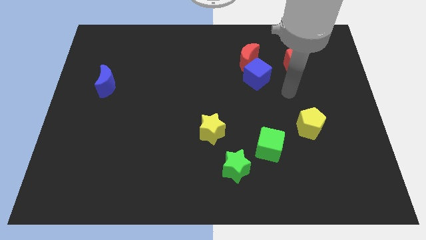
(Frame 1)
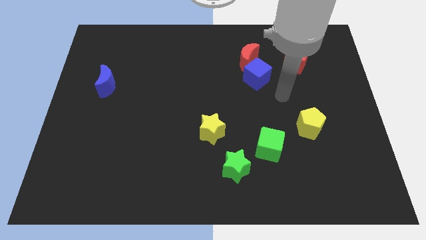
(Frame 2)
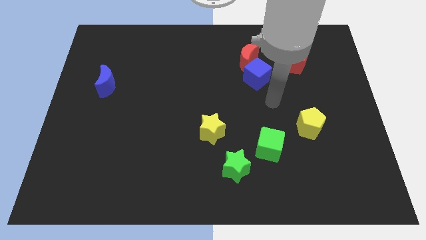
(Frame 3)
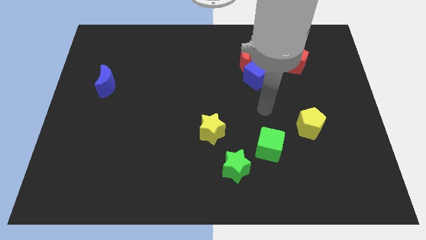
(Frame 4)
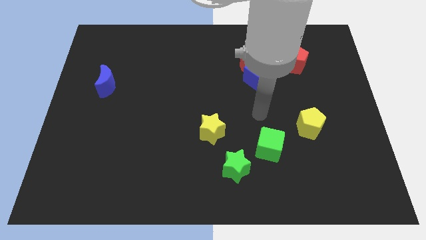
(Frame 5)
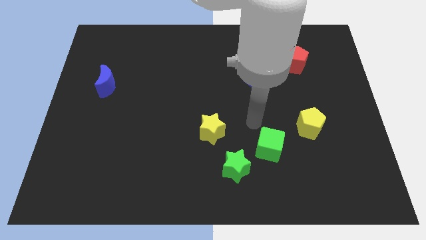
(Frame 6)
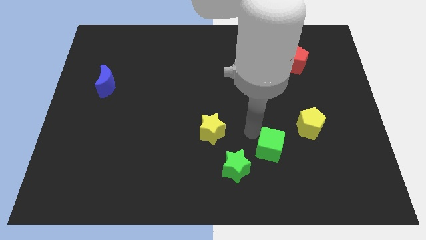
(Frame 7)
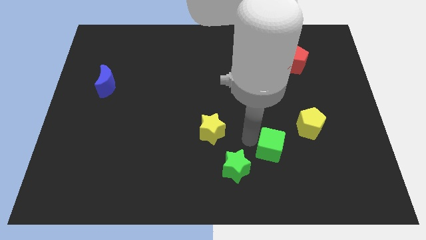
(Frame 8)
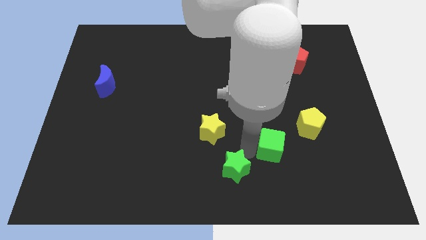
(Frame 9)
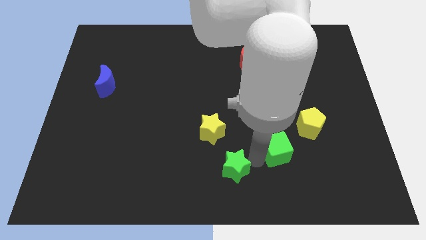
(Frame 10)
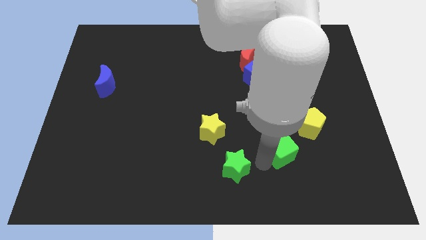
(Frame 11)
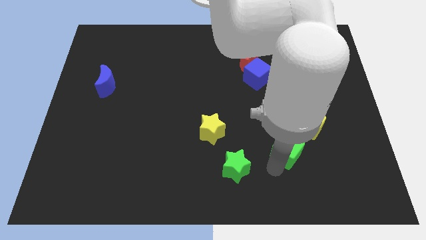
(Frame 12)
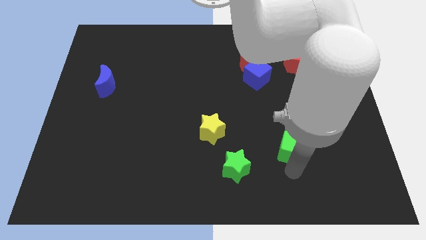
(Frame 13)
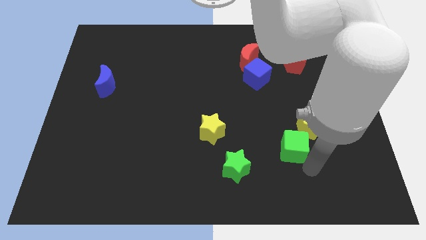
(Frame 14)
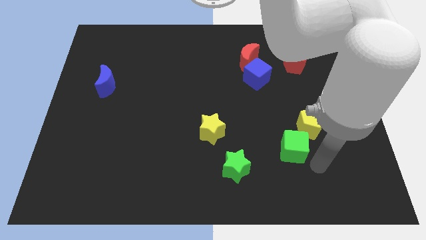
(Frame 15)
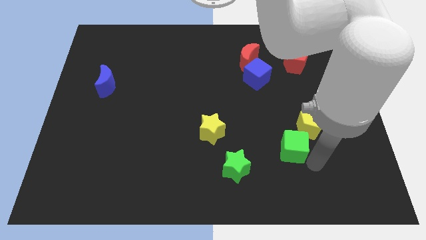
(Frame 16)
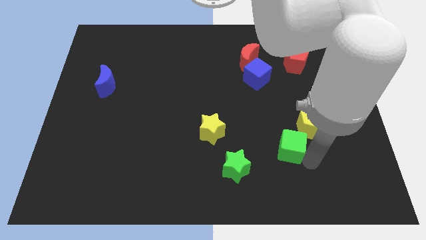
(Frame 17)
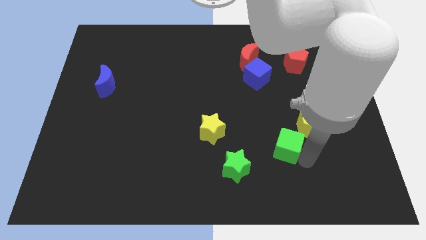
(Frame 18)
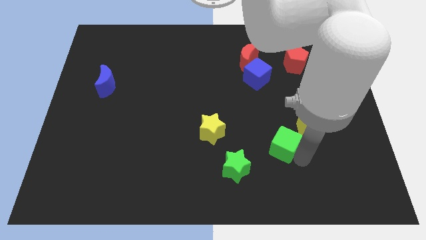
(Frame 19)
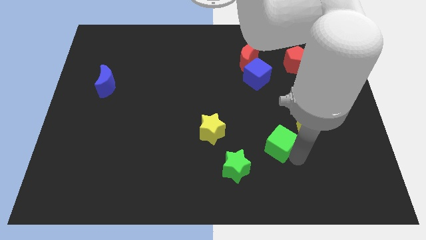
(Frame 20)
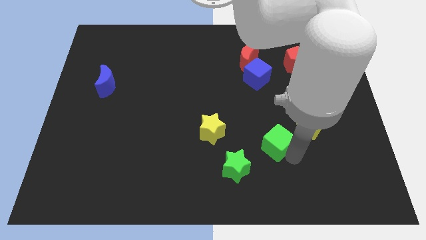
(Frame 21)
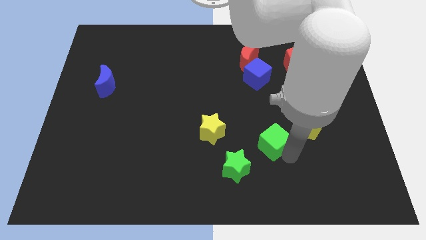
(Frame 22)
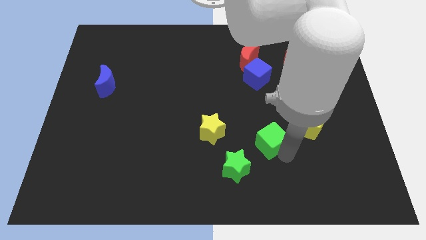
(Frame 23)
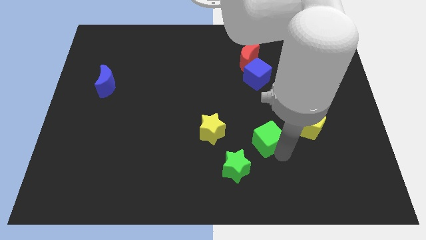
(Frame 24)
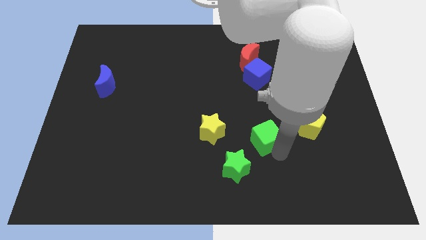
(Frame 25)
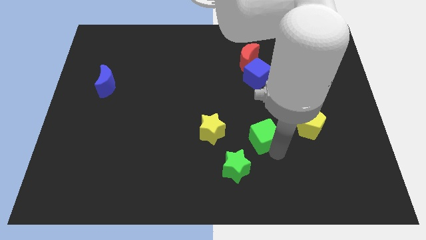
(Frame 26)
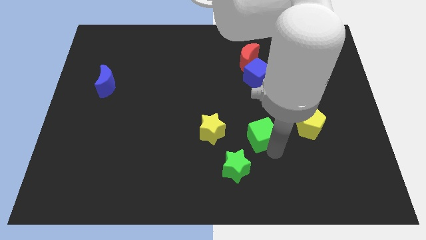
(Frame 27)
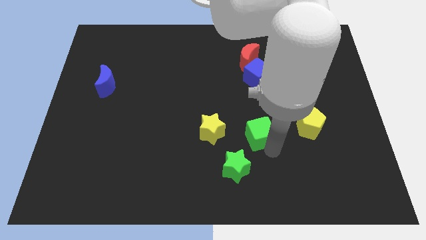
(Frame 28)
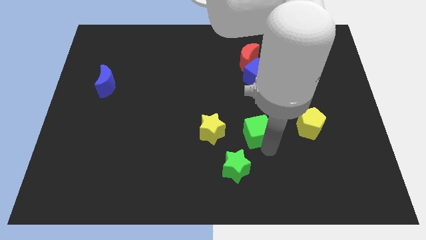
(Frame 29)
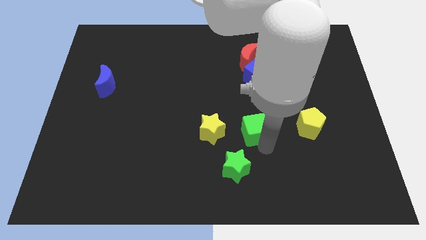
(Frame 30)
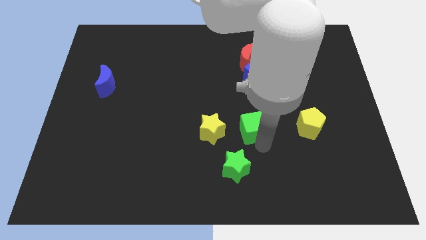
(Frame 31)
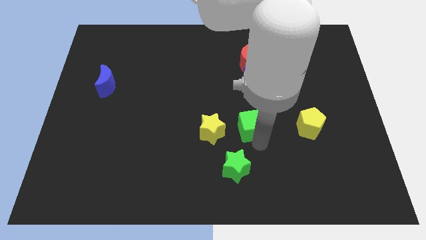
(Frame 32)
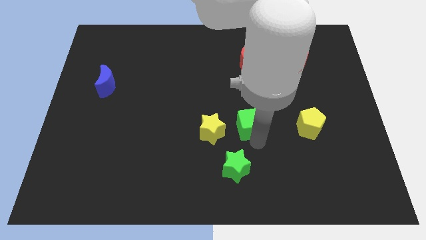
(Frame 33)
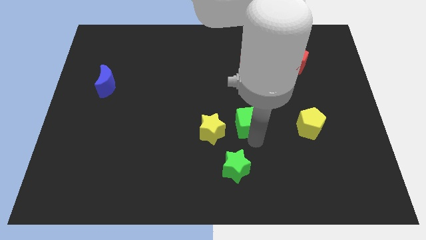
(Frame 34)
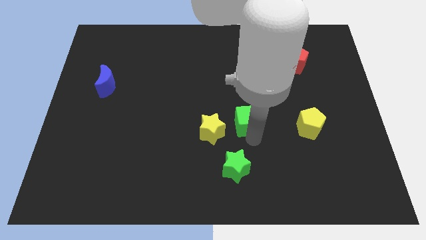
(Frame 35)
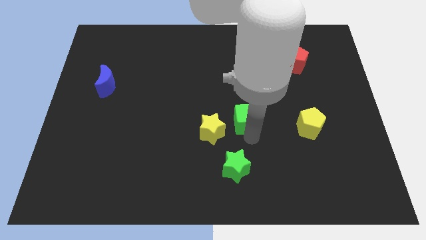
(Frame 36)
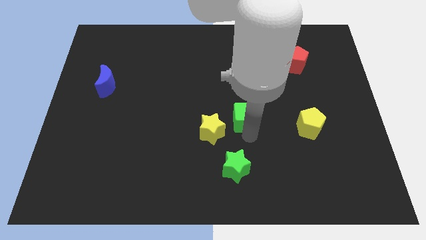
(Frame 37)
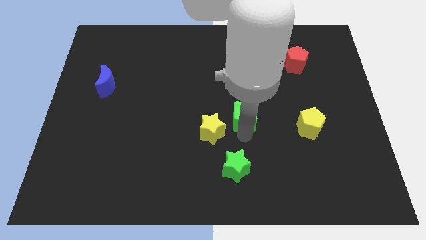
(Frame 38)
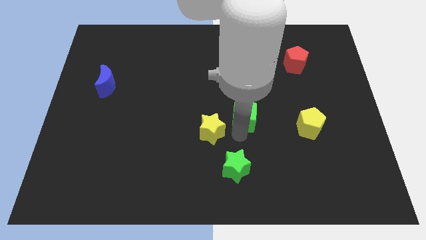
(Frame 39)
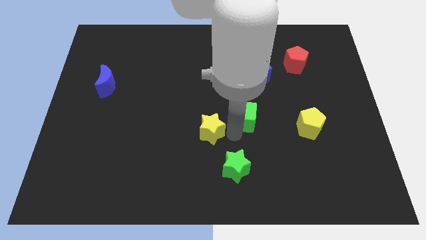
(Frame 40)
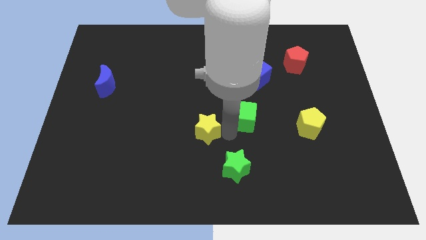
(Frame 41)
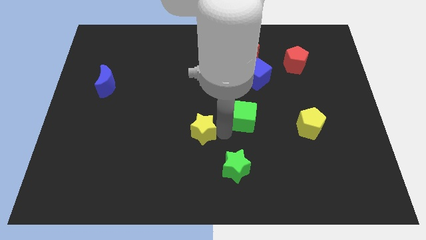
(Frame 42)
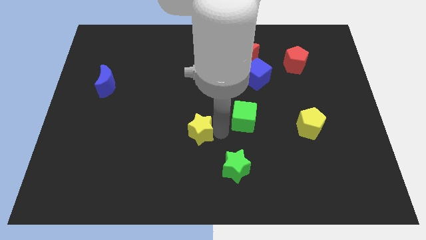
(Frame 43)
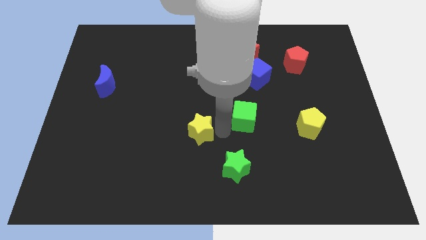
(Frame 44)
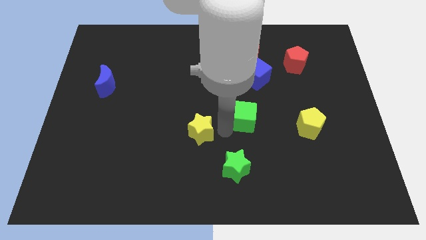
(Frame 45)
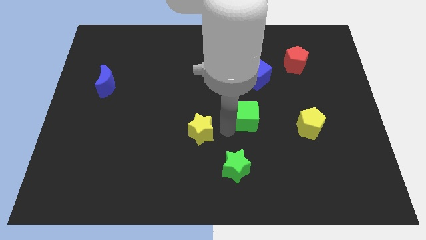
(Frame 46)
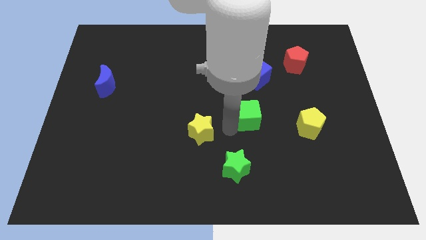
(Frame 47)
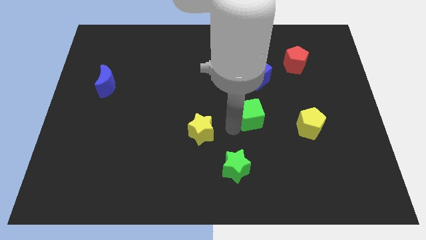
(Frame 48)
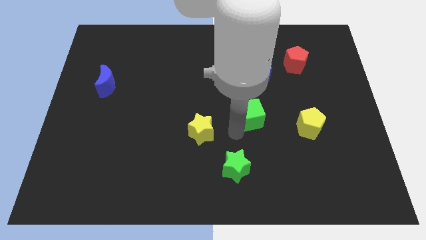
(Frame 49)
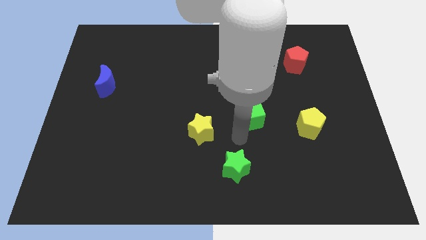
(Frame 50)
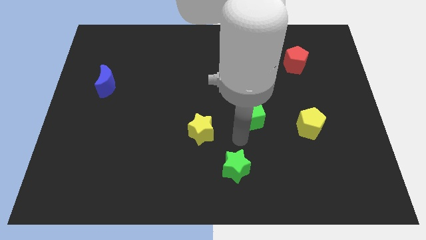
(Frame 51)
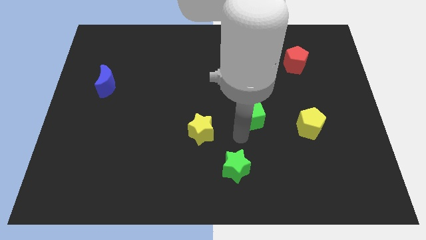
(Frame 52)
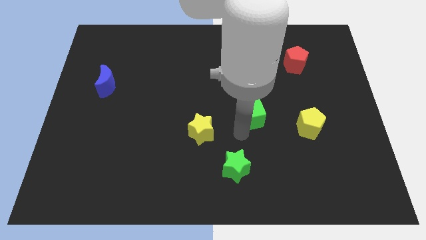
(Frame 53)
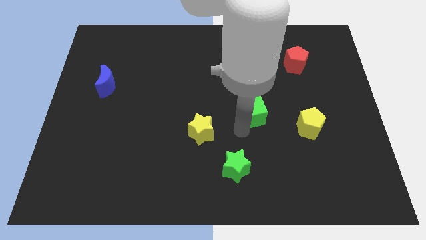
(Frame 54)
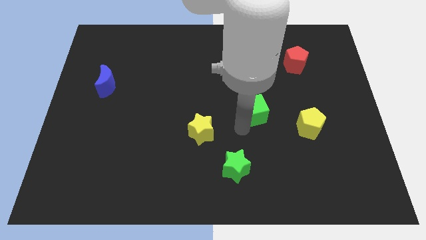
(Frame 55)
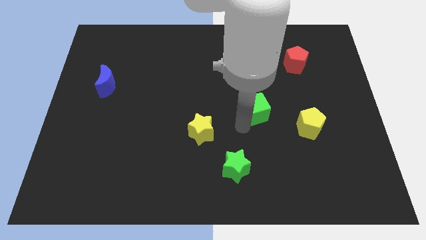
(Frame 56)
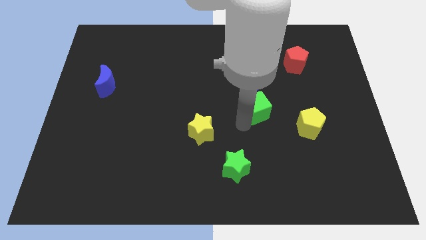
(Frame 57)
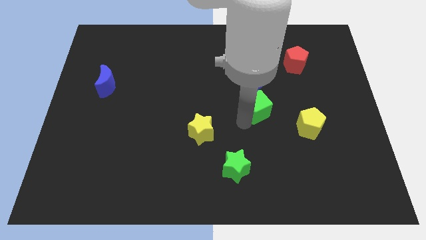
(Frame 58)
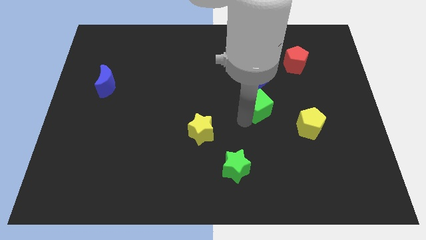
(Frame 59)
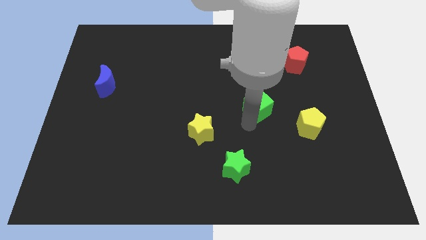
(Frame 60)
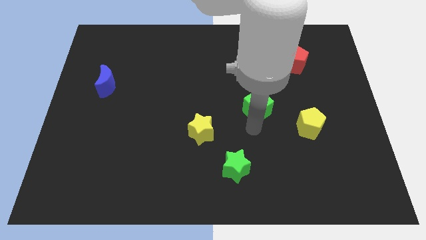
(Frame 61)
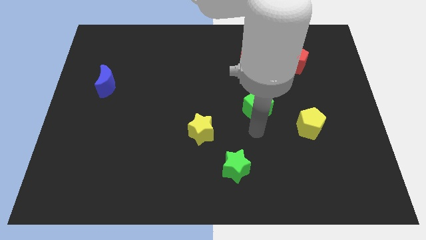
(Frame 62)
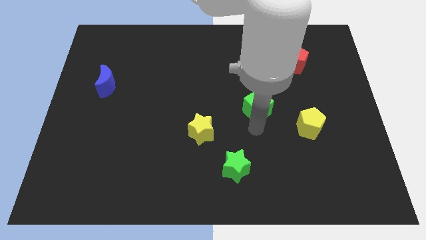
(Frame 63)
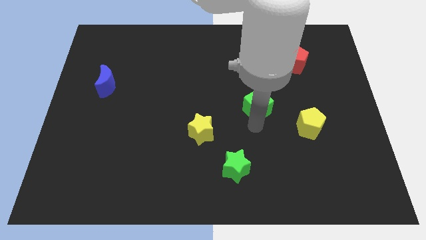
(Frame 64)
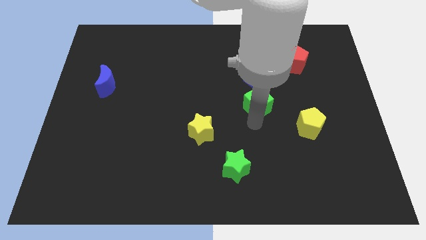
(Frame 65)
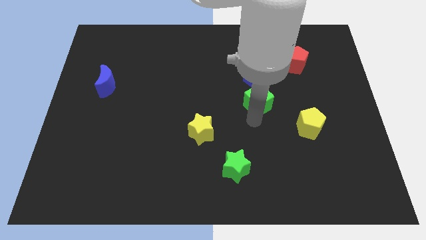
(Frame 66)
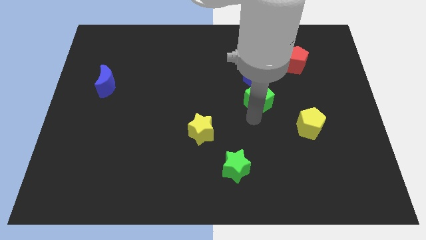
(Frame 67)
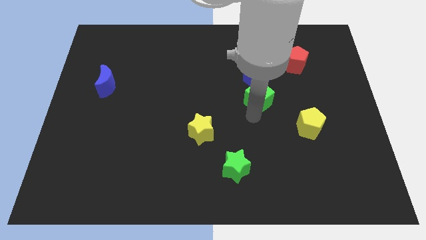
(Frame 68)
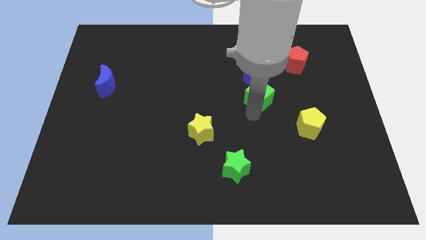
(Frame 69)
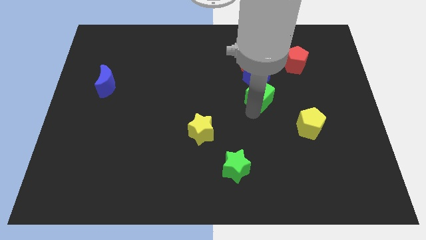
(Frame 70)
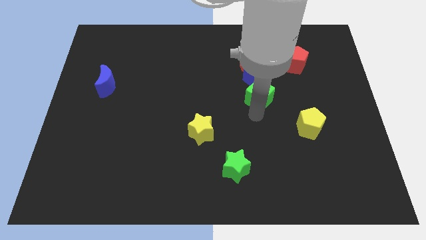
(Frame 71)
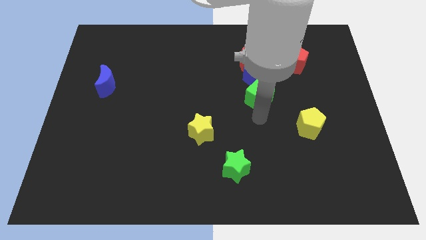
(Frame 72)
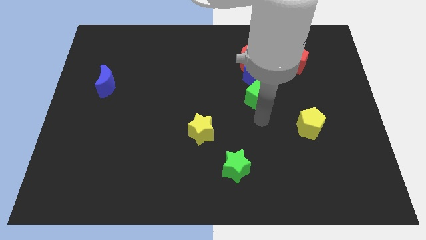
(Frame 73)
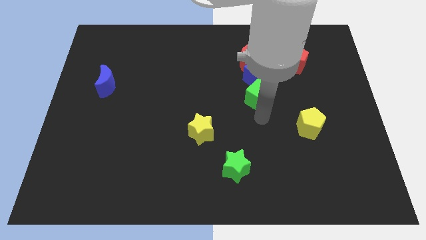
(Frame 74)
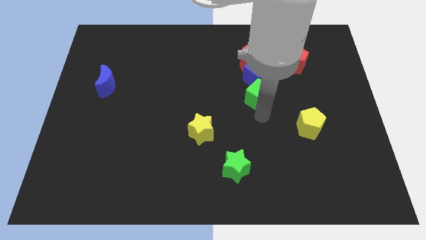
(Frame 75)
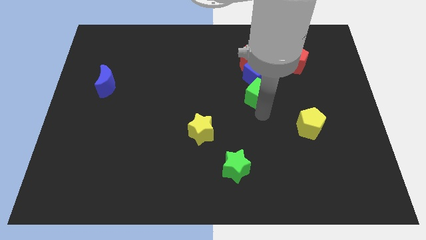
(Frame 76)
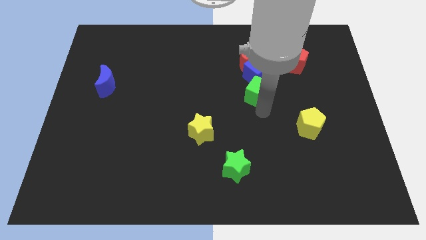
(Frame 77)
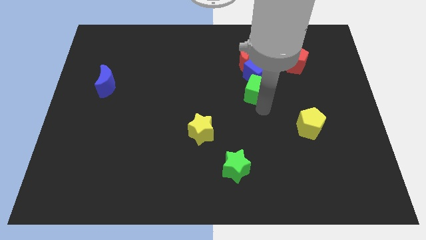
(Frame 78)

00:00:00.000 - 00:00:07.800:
push the green cube to the blue cube
